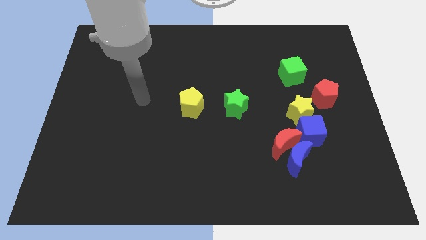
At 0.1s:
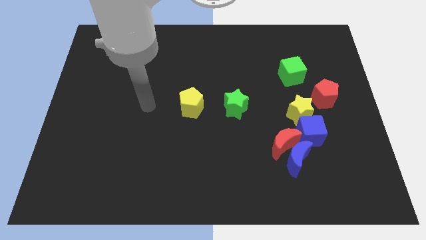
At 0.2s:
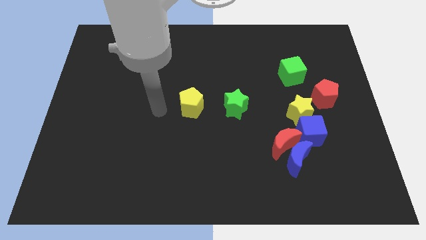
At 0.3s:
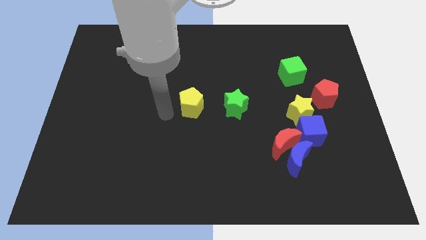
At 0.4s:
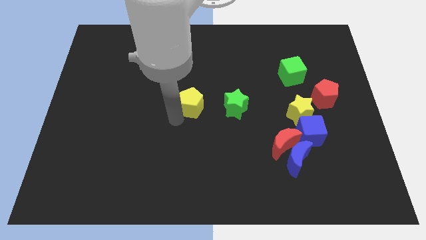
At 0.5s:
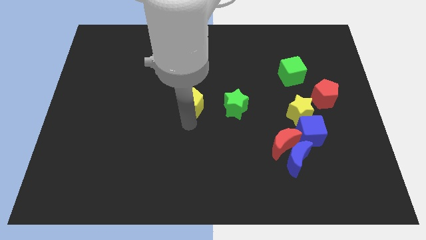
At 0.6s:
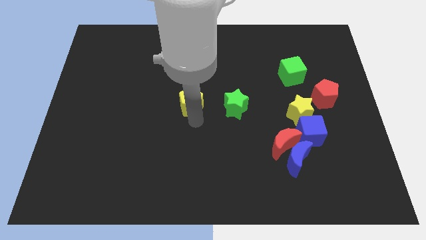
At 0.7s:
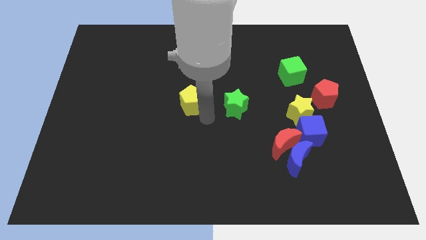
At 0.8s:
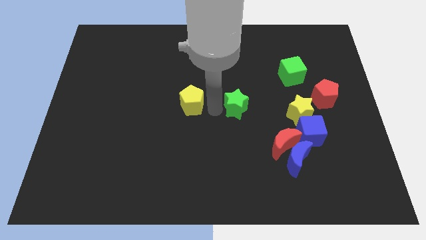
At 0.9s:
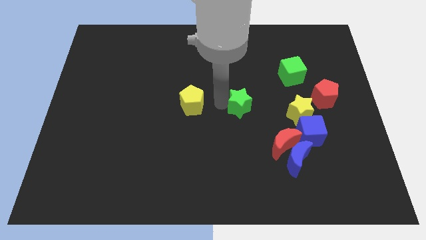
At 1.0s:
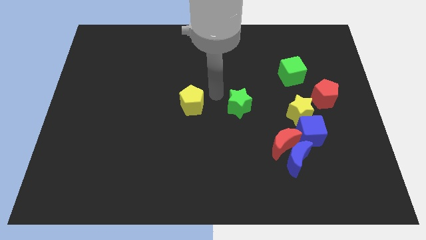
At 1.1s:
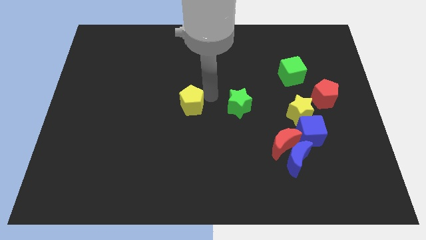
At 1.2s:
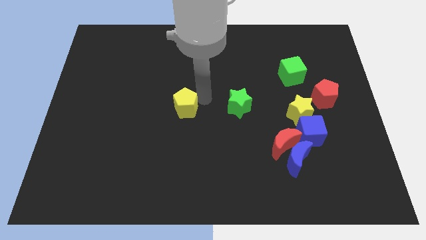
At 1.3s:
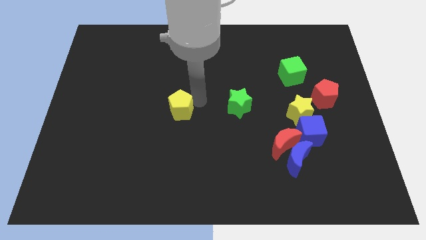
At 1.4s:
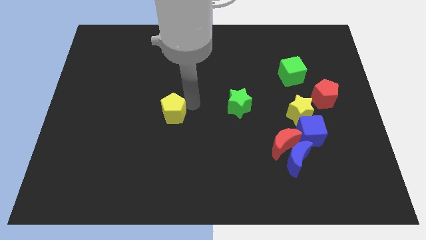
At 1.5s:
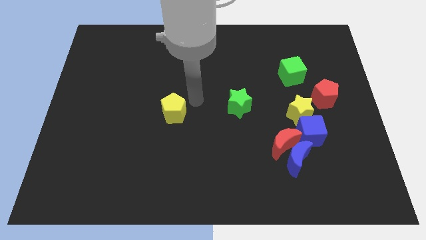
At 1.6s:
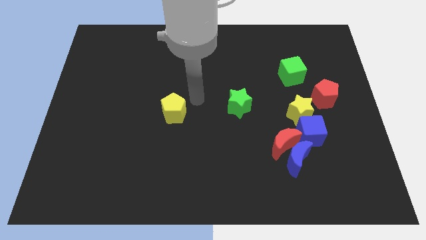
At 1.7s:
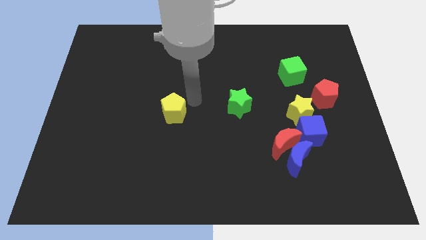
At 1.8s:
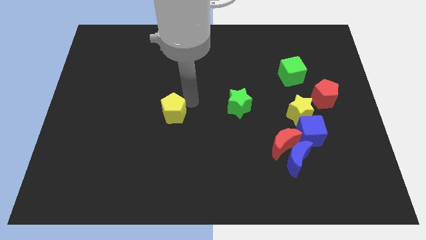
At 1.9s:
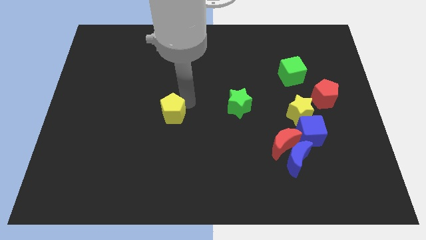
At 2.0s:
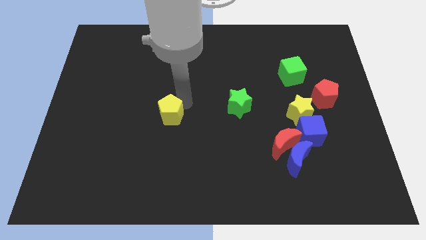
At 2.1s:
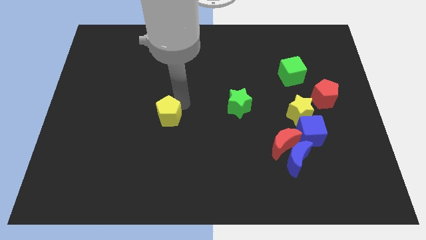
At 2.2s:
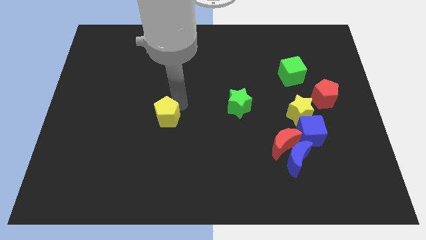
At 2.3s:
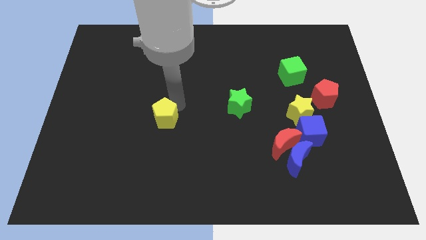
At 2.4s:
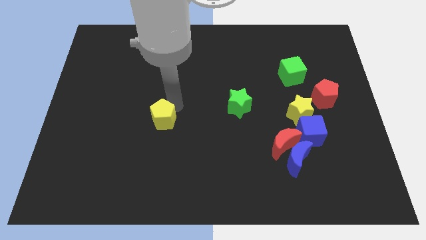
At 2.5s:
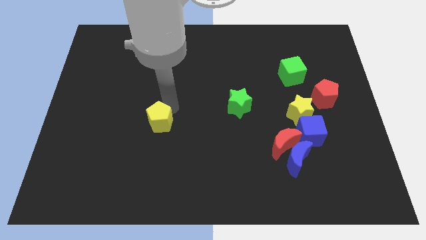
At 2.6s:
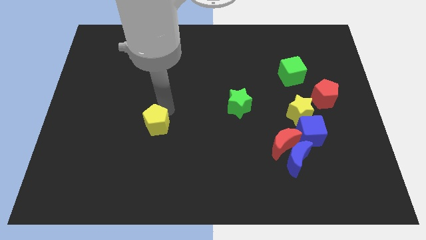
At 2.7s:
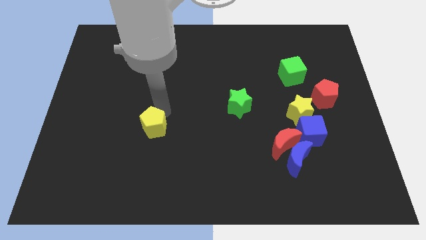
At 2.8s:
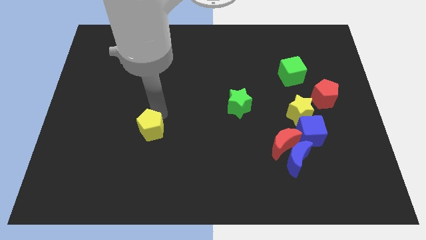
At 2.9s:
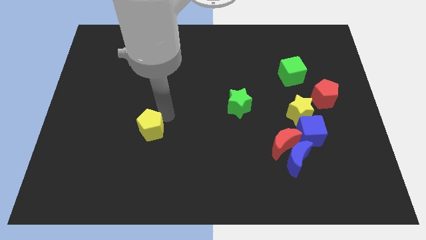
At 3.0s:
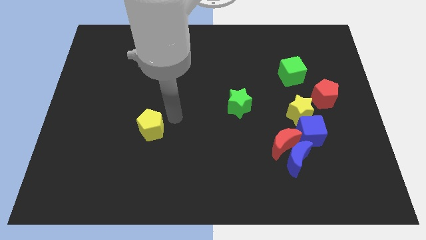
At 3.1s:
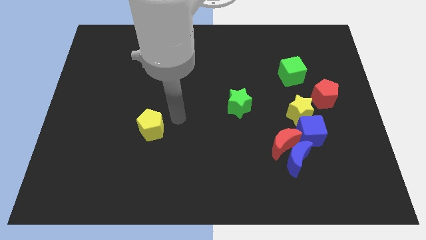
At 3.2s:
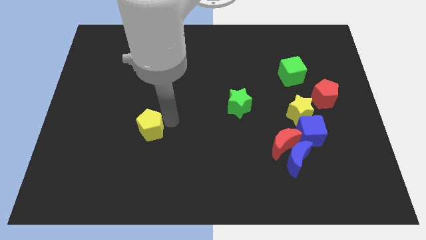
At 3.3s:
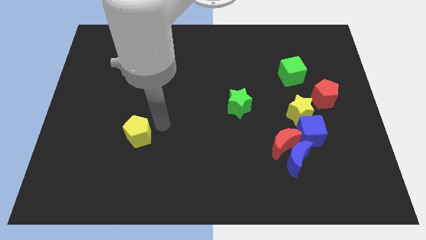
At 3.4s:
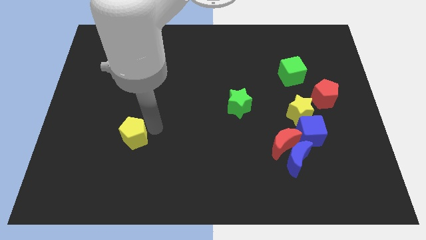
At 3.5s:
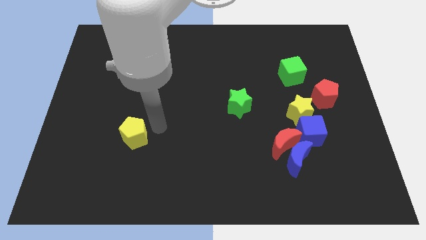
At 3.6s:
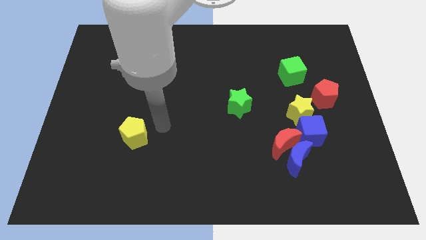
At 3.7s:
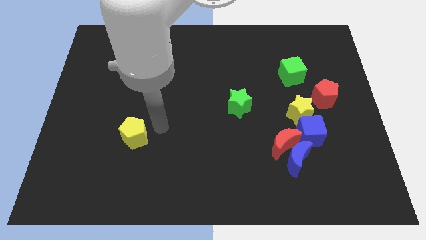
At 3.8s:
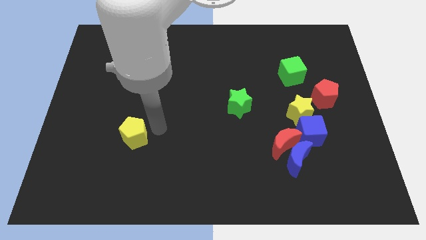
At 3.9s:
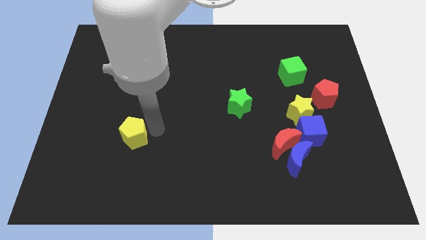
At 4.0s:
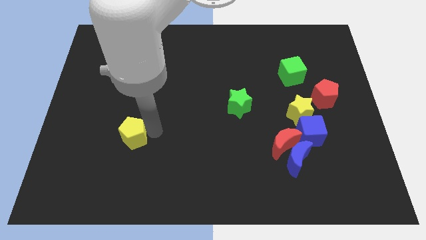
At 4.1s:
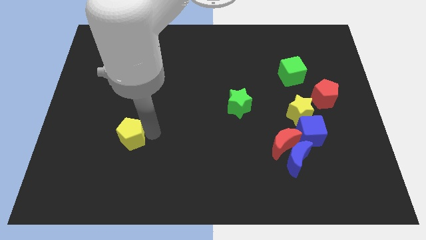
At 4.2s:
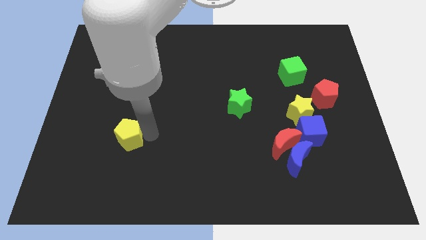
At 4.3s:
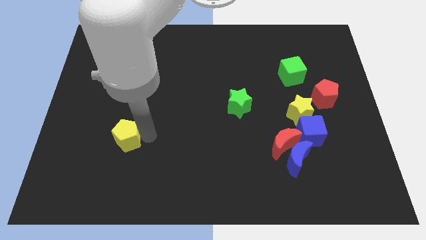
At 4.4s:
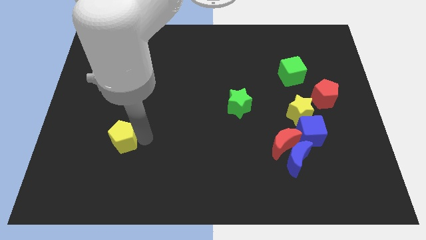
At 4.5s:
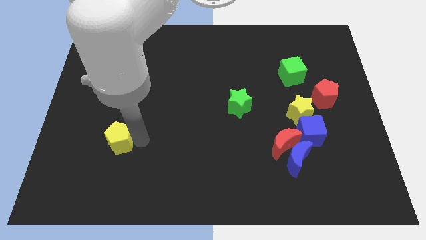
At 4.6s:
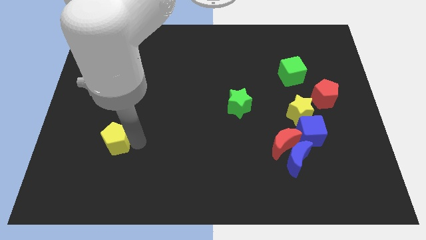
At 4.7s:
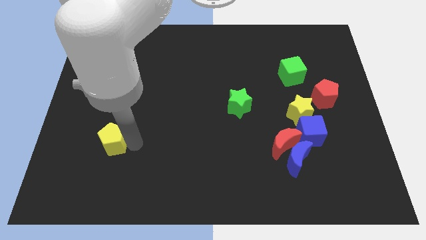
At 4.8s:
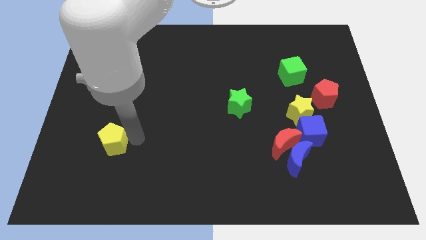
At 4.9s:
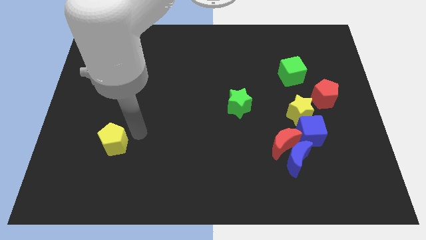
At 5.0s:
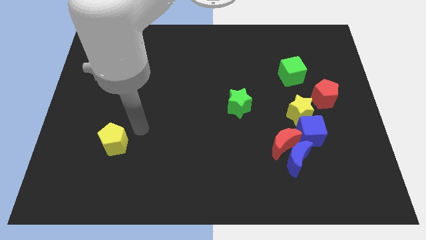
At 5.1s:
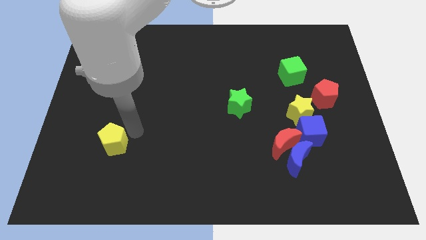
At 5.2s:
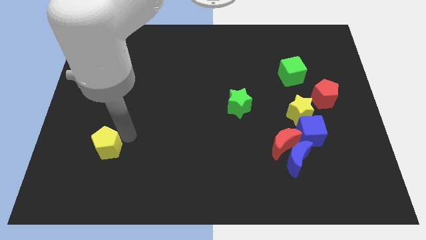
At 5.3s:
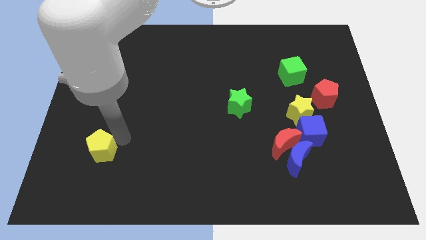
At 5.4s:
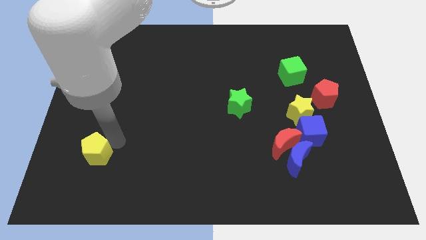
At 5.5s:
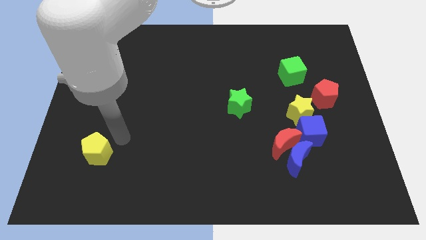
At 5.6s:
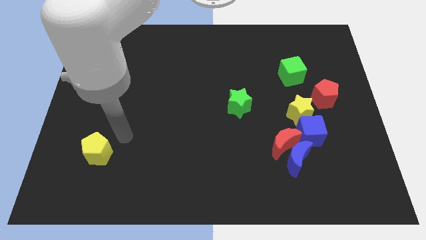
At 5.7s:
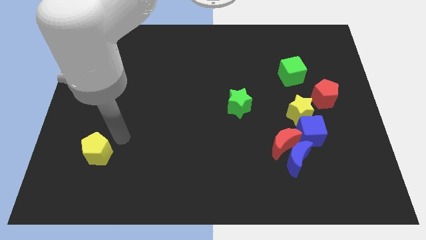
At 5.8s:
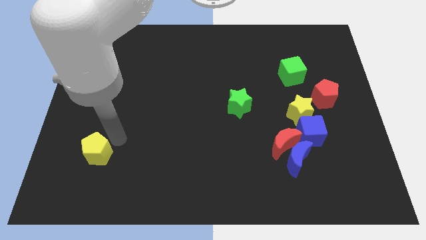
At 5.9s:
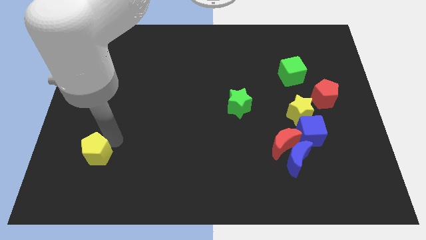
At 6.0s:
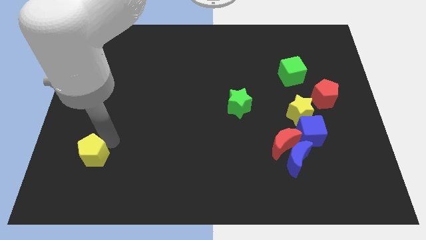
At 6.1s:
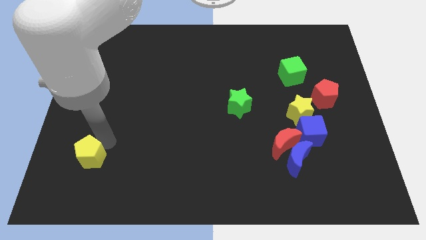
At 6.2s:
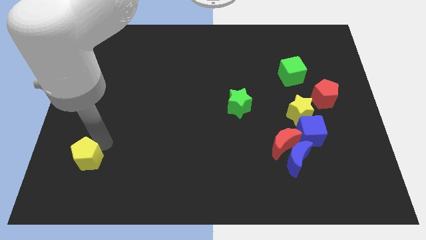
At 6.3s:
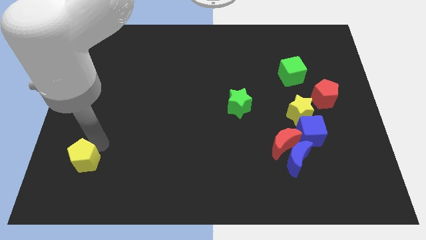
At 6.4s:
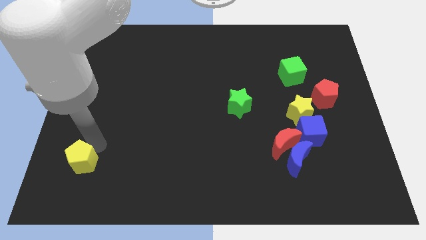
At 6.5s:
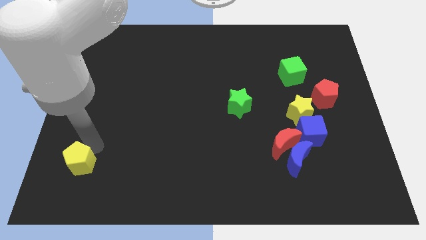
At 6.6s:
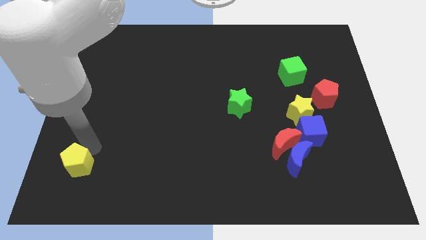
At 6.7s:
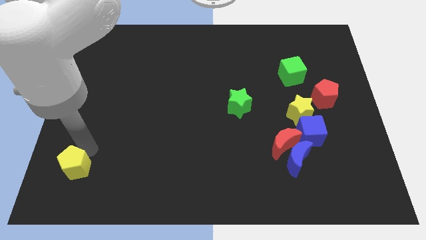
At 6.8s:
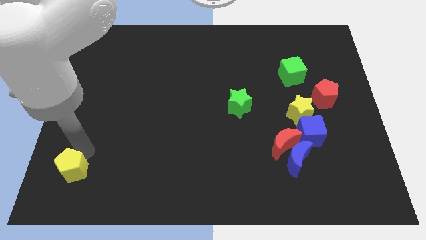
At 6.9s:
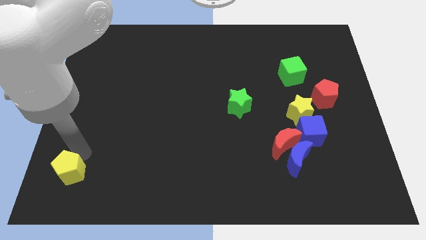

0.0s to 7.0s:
slide the yellow pentagon to the bottom left

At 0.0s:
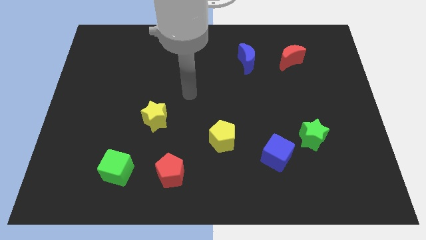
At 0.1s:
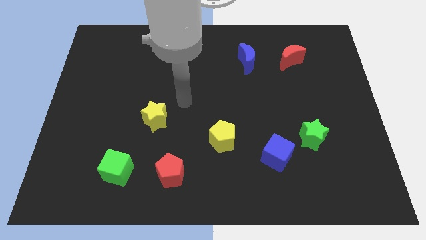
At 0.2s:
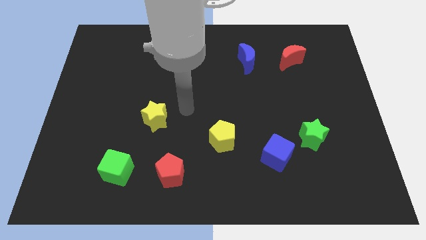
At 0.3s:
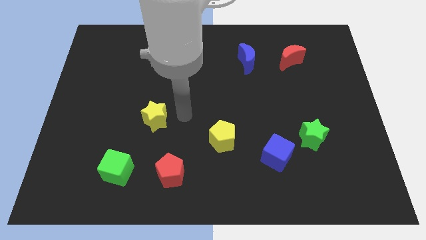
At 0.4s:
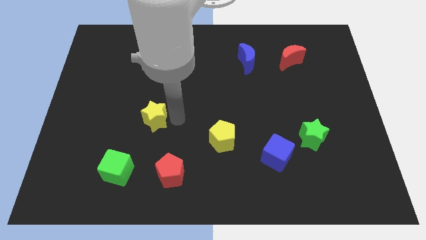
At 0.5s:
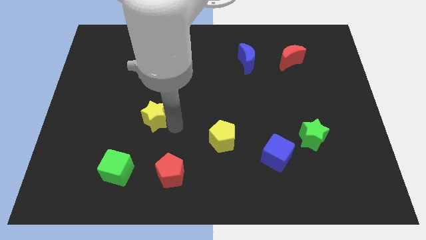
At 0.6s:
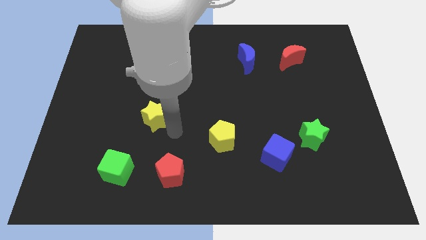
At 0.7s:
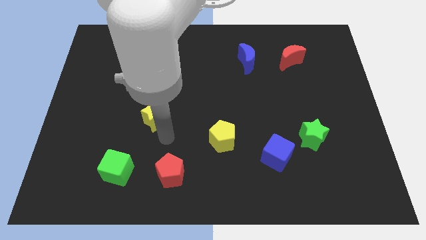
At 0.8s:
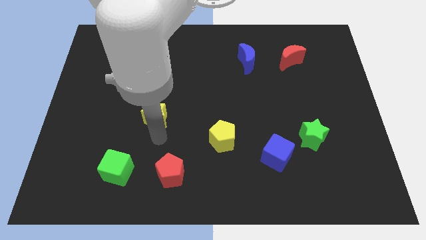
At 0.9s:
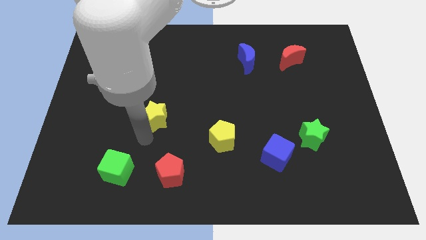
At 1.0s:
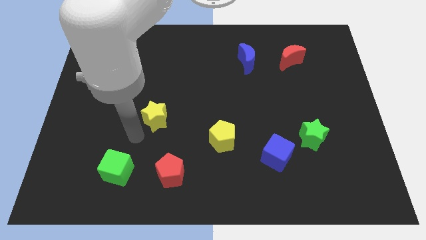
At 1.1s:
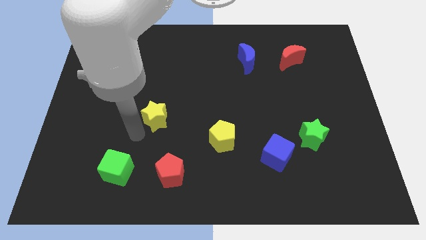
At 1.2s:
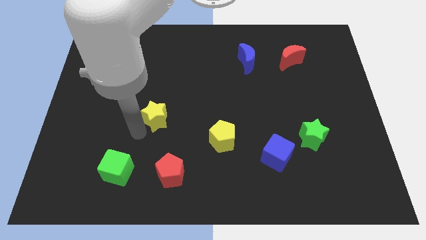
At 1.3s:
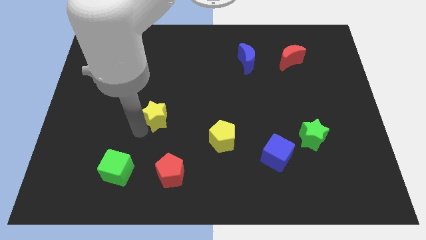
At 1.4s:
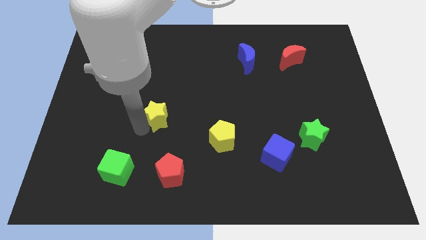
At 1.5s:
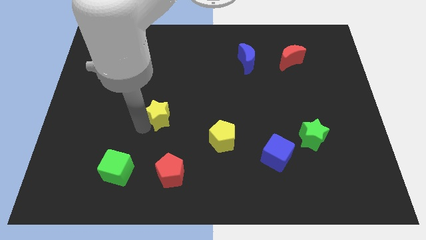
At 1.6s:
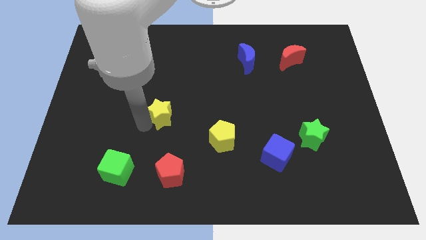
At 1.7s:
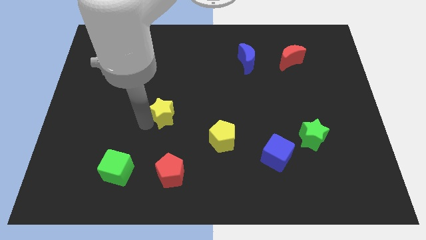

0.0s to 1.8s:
push the yellow star to the middle
